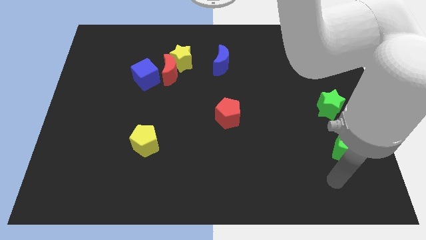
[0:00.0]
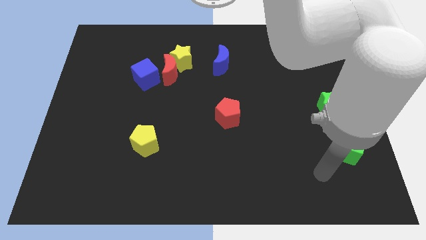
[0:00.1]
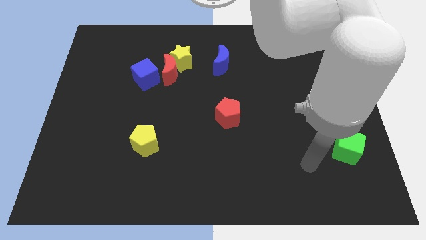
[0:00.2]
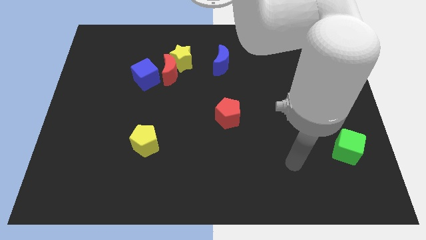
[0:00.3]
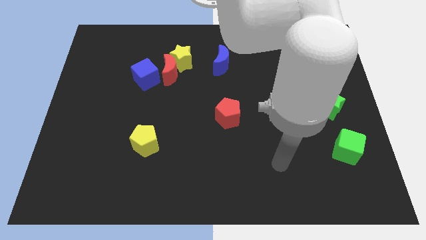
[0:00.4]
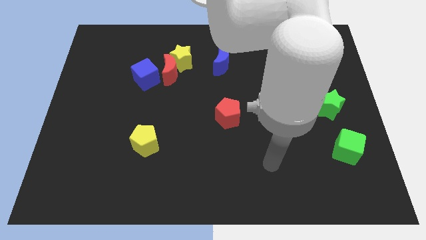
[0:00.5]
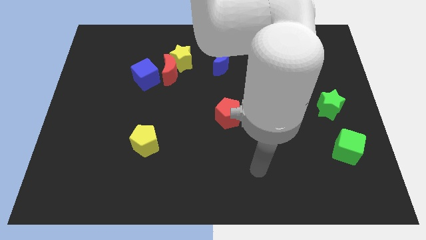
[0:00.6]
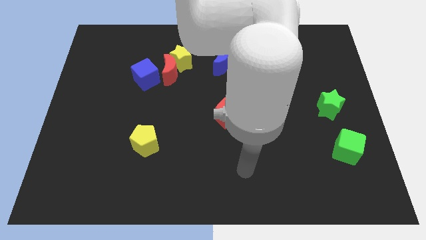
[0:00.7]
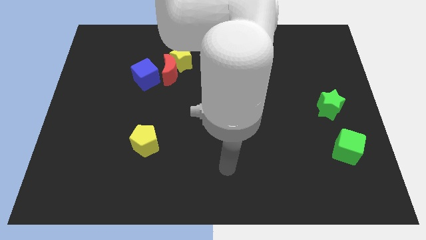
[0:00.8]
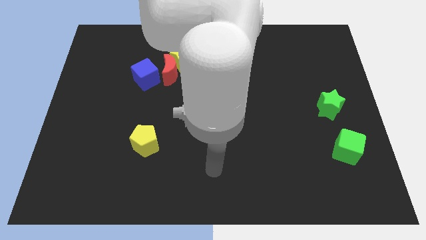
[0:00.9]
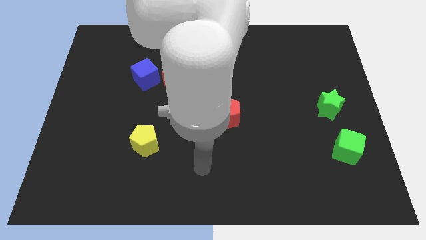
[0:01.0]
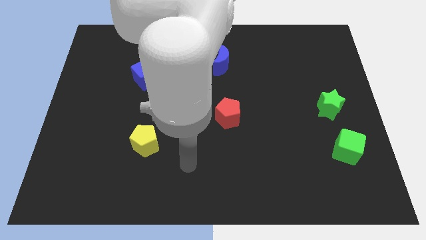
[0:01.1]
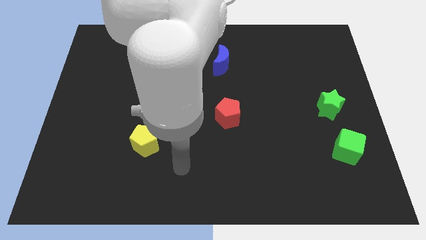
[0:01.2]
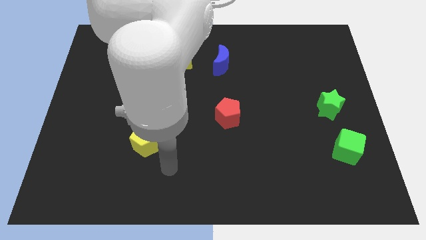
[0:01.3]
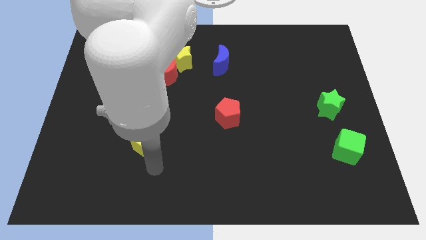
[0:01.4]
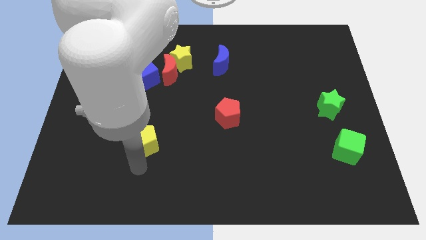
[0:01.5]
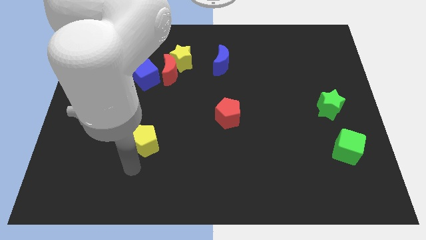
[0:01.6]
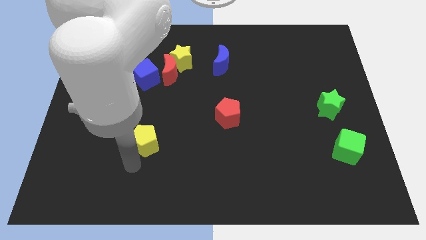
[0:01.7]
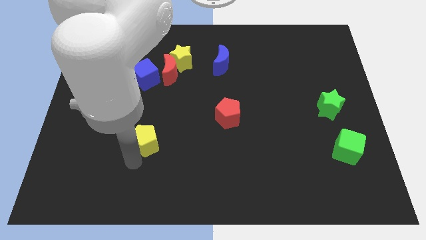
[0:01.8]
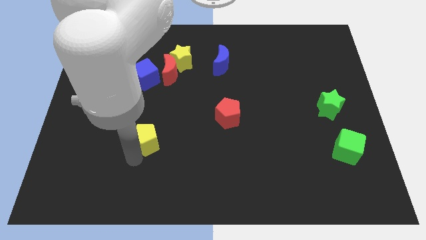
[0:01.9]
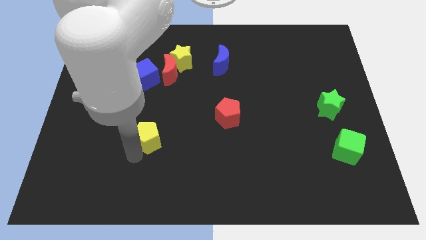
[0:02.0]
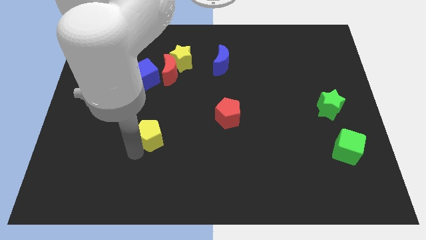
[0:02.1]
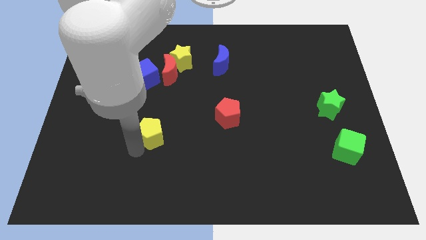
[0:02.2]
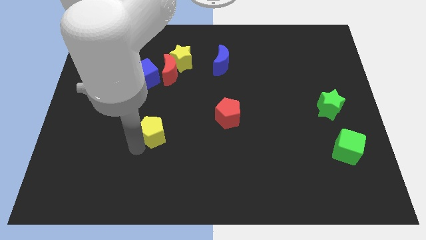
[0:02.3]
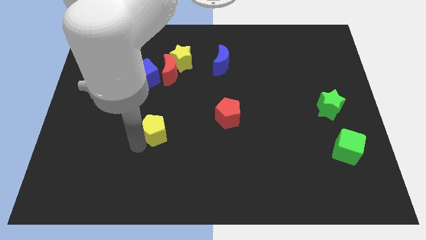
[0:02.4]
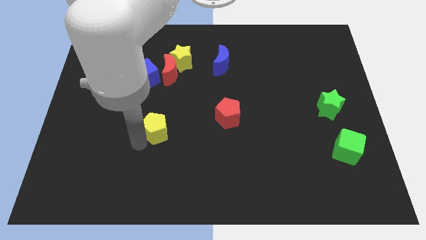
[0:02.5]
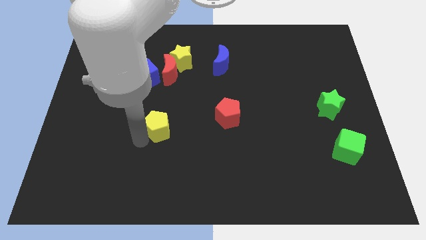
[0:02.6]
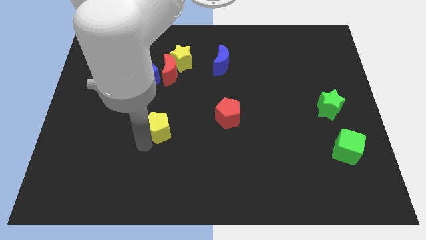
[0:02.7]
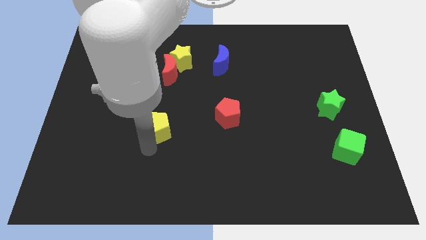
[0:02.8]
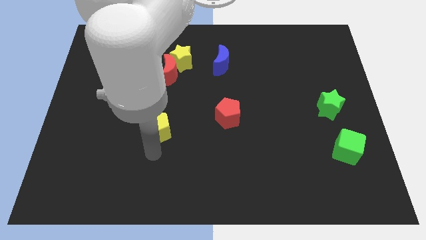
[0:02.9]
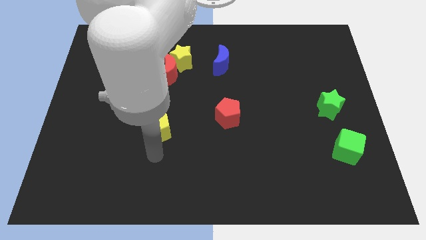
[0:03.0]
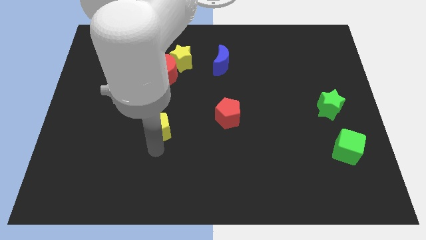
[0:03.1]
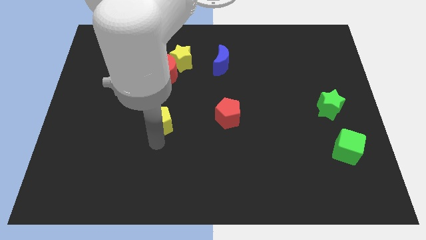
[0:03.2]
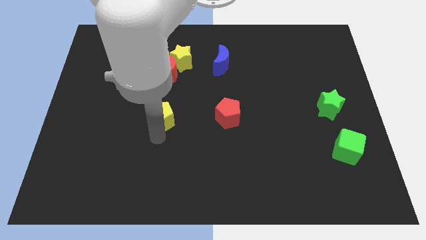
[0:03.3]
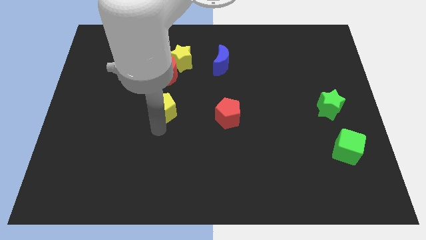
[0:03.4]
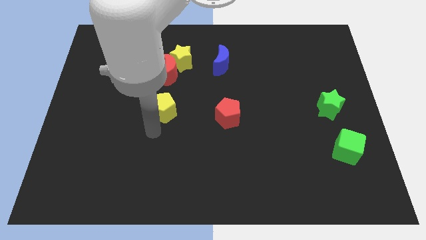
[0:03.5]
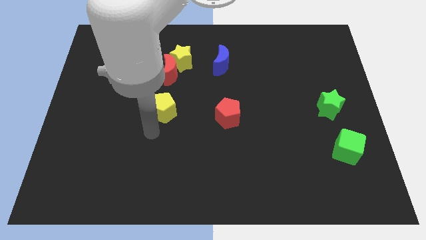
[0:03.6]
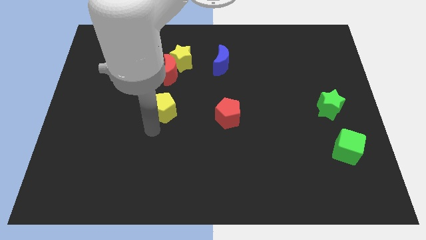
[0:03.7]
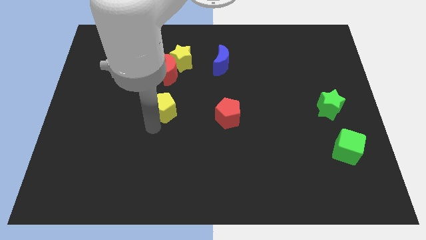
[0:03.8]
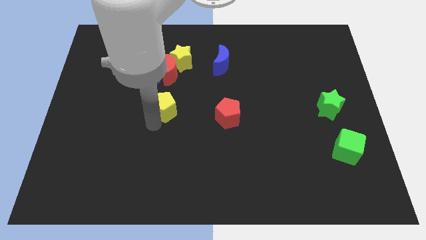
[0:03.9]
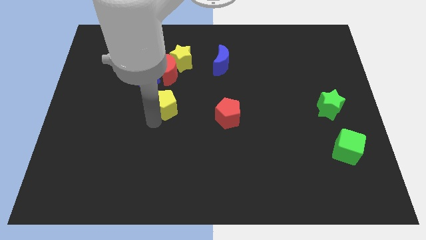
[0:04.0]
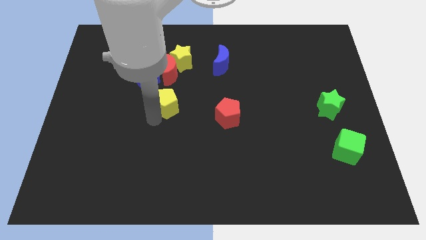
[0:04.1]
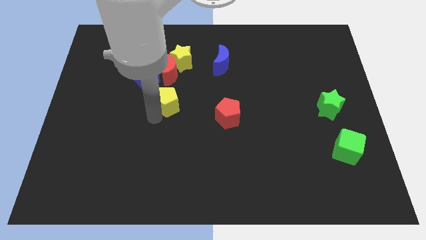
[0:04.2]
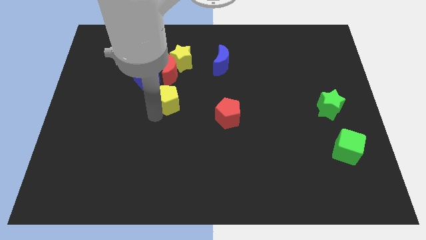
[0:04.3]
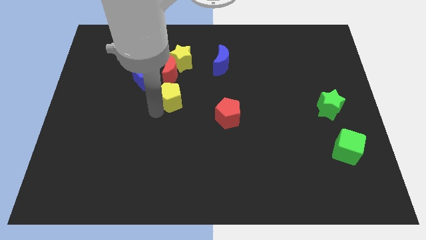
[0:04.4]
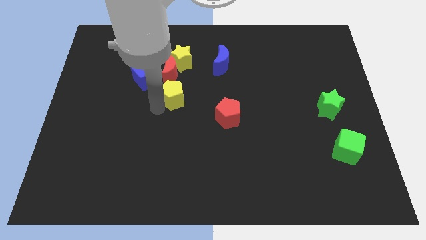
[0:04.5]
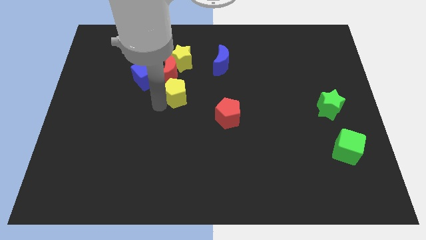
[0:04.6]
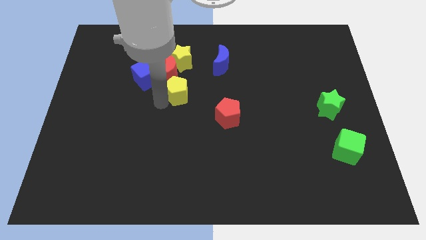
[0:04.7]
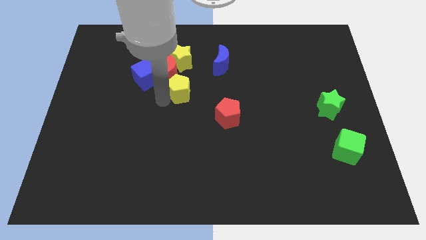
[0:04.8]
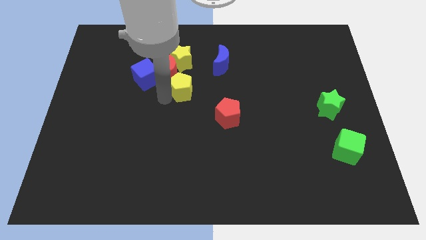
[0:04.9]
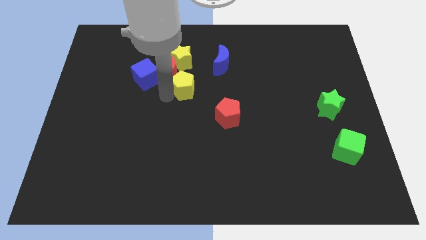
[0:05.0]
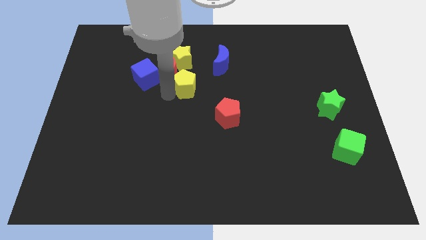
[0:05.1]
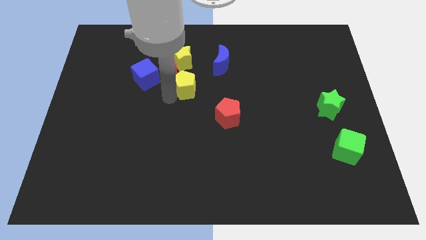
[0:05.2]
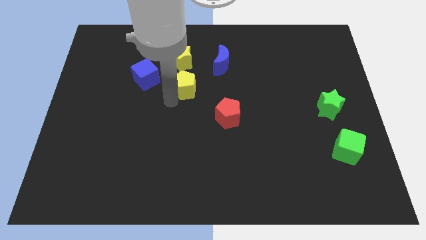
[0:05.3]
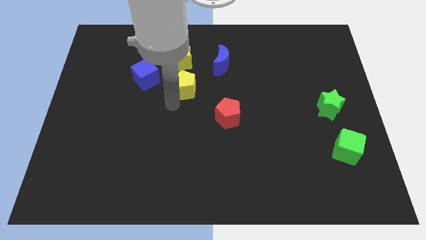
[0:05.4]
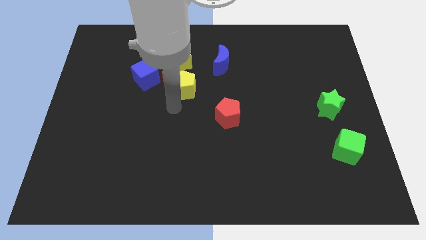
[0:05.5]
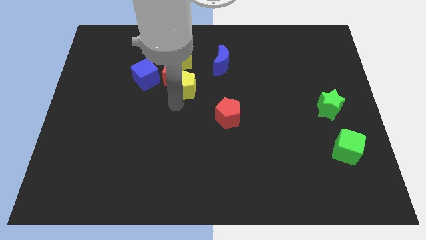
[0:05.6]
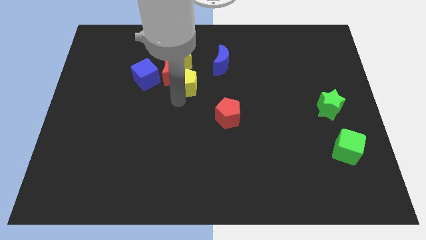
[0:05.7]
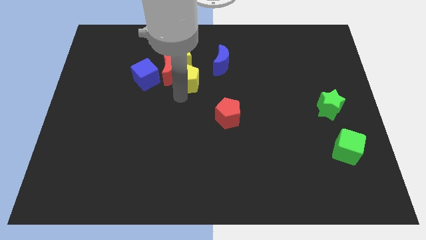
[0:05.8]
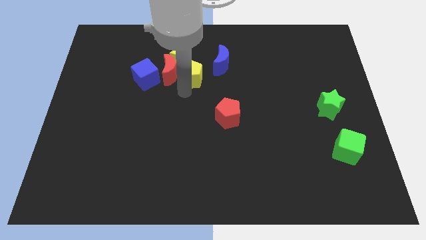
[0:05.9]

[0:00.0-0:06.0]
push the yellow pentagon next to the yellow star
